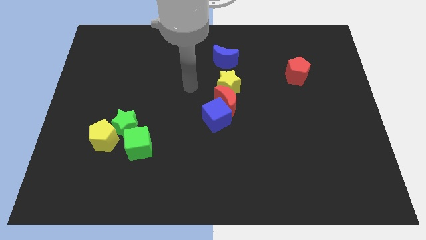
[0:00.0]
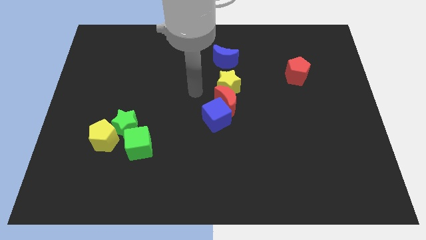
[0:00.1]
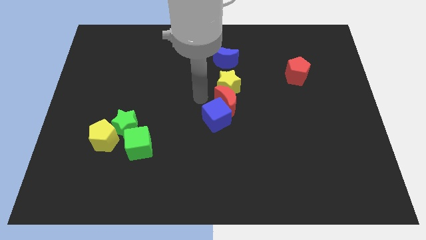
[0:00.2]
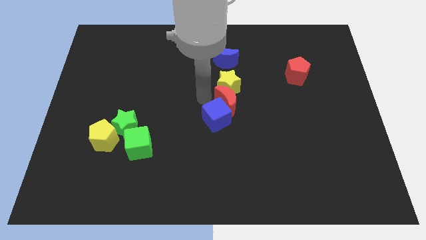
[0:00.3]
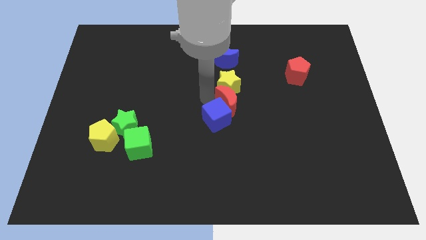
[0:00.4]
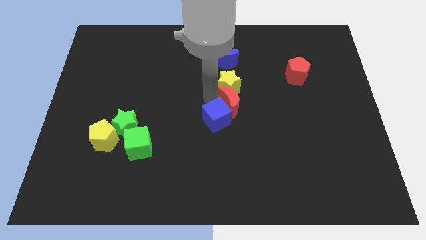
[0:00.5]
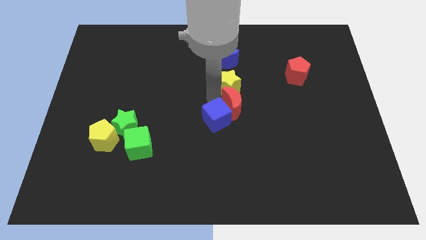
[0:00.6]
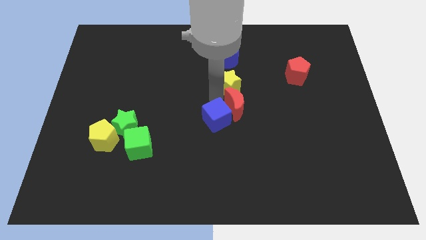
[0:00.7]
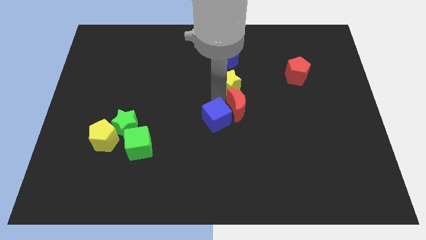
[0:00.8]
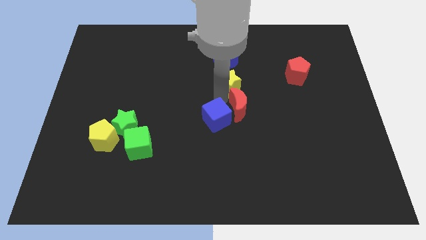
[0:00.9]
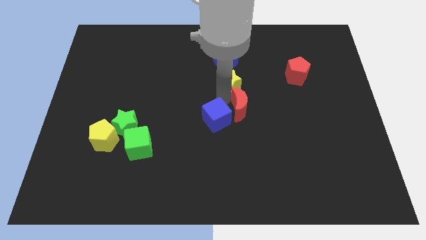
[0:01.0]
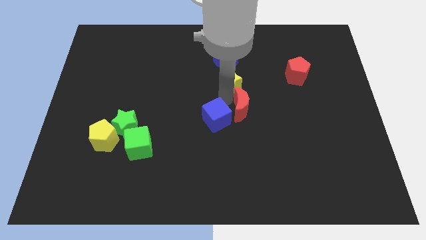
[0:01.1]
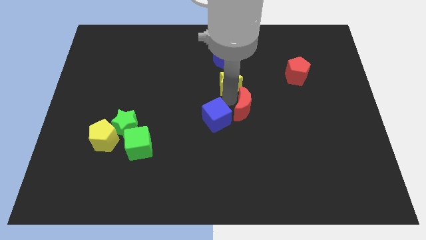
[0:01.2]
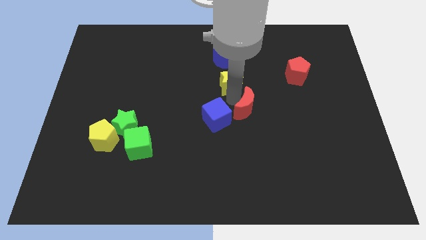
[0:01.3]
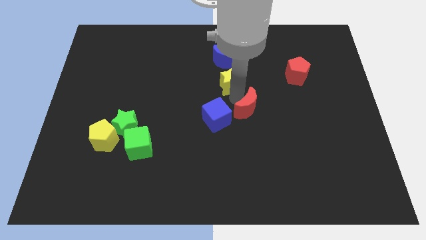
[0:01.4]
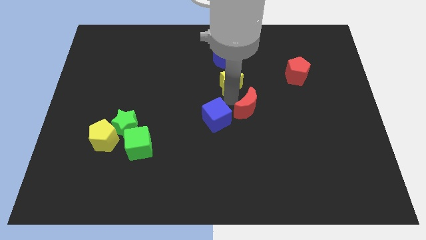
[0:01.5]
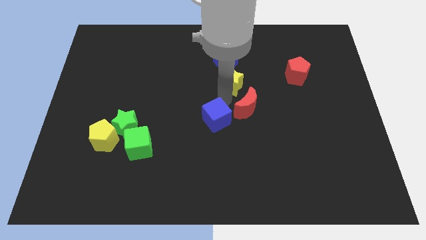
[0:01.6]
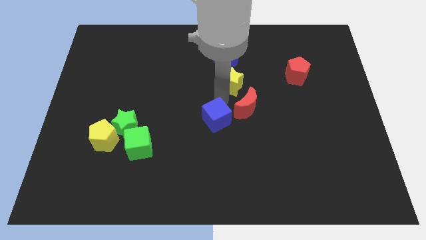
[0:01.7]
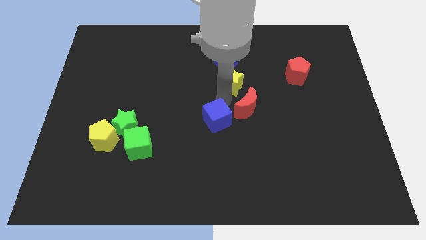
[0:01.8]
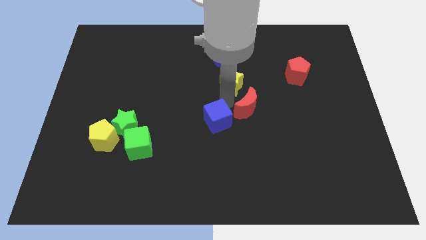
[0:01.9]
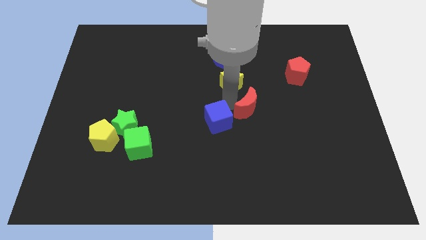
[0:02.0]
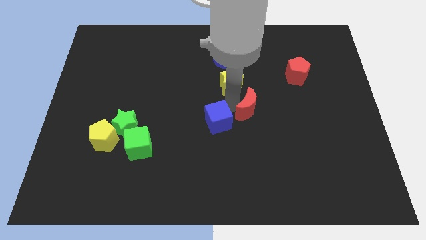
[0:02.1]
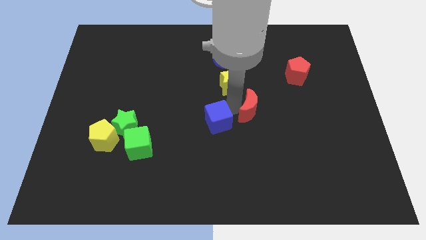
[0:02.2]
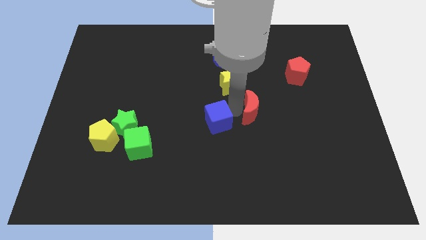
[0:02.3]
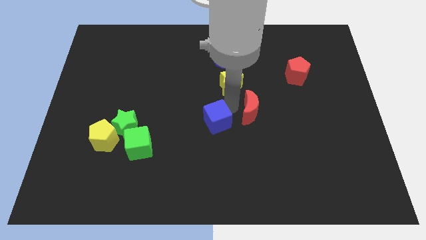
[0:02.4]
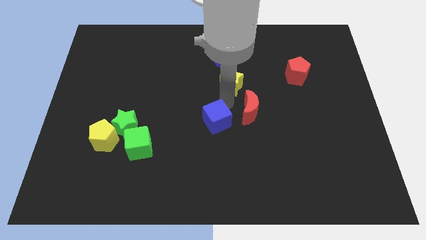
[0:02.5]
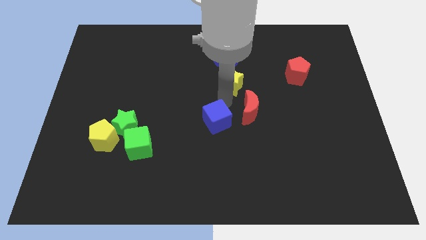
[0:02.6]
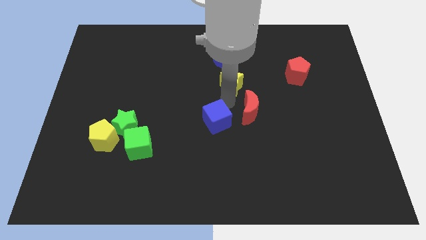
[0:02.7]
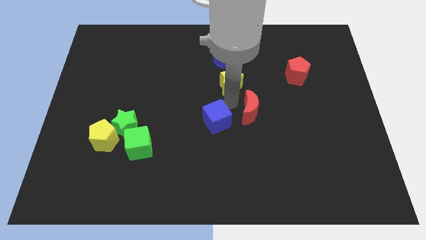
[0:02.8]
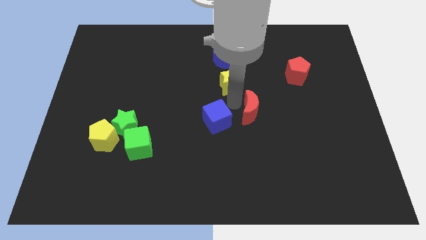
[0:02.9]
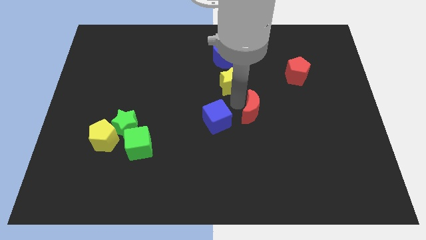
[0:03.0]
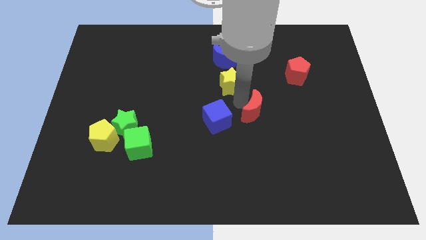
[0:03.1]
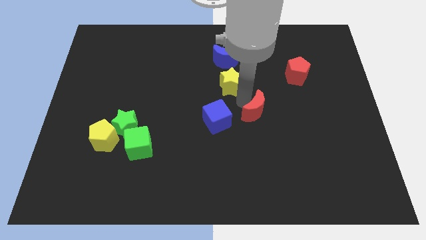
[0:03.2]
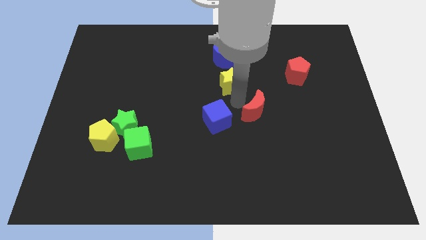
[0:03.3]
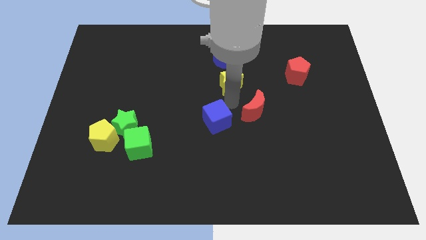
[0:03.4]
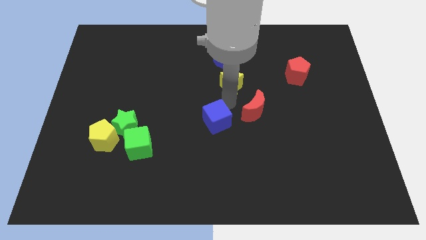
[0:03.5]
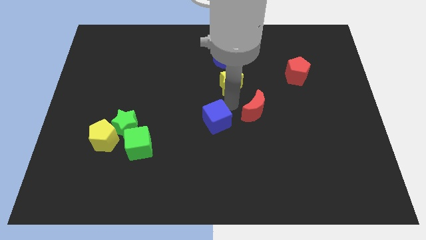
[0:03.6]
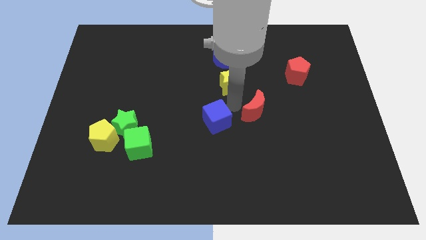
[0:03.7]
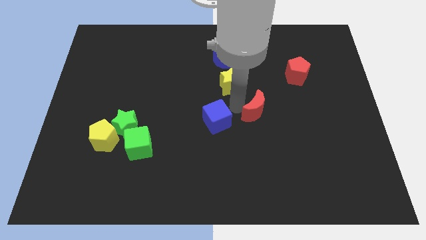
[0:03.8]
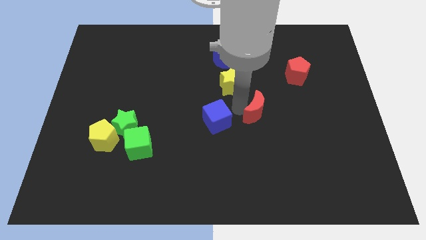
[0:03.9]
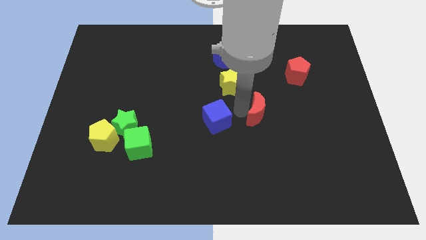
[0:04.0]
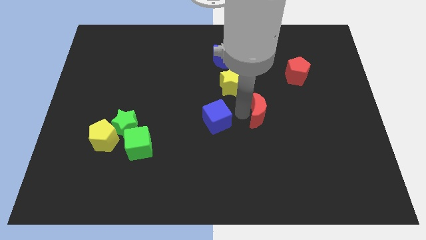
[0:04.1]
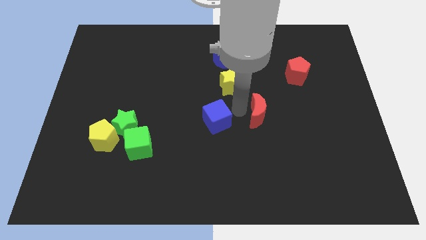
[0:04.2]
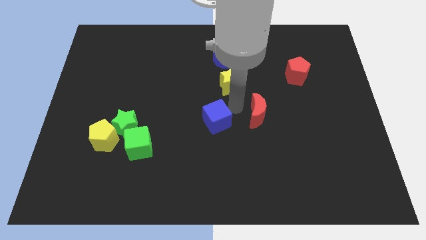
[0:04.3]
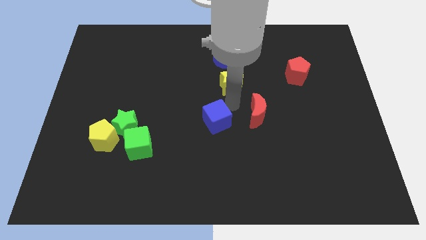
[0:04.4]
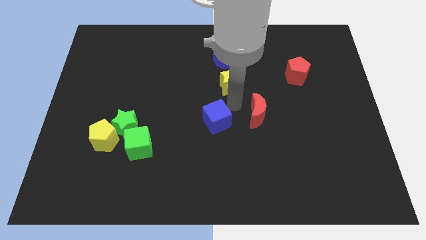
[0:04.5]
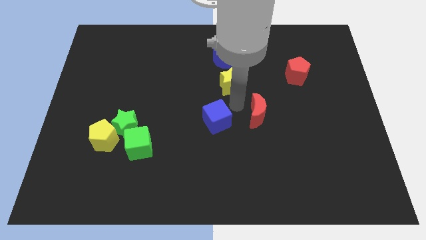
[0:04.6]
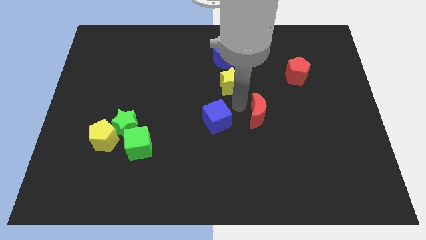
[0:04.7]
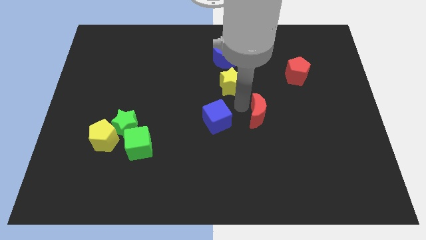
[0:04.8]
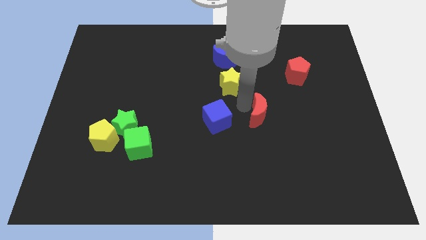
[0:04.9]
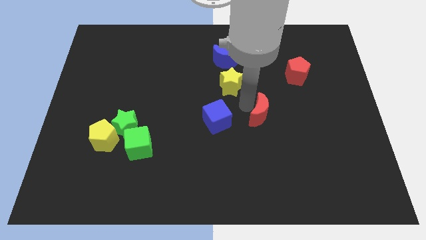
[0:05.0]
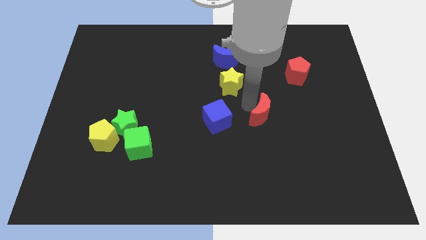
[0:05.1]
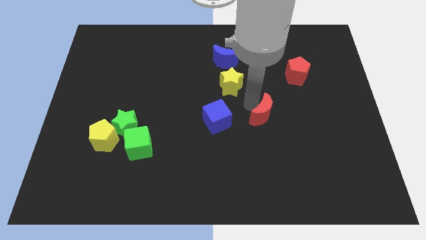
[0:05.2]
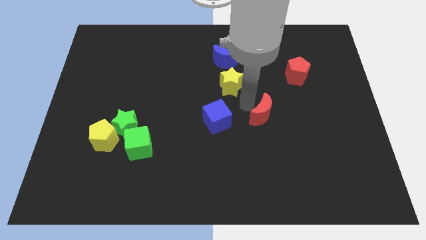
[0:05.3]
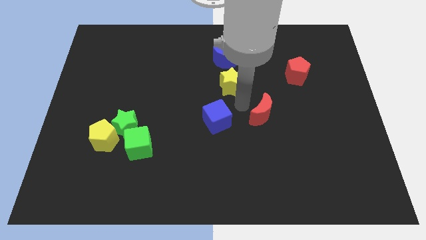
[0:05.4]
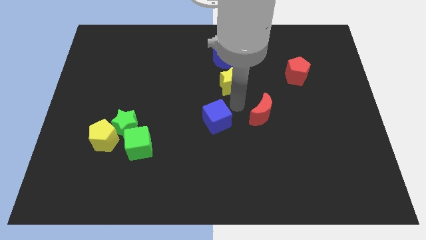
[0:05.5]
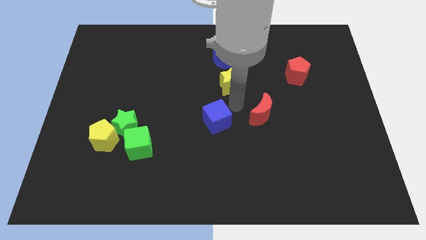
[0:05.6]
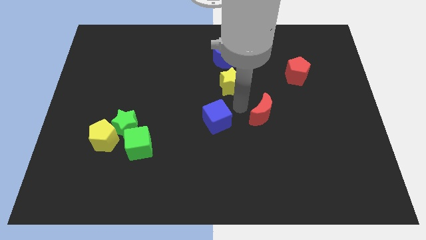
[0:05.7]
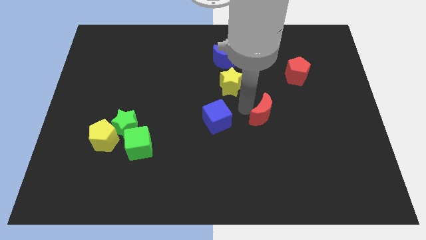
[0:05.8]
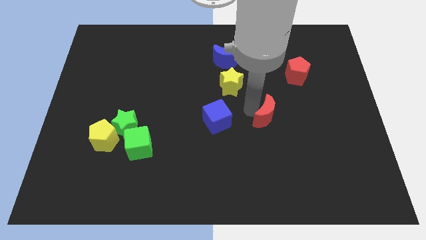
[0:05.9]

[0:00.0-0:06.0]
pull the red moon apart from the yellow star and blue cube

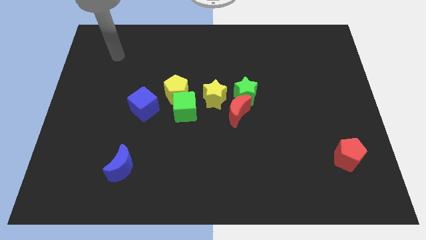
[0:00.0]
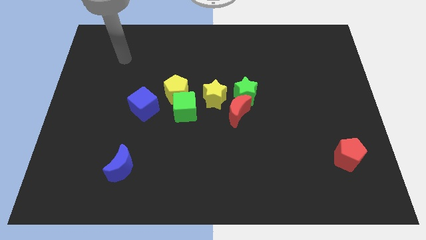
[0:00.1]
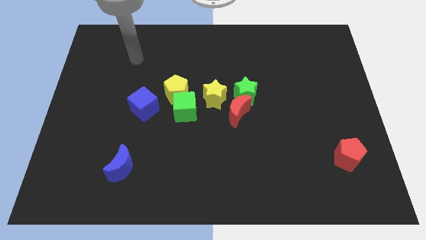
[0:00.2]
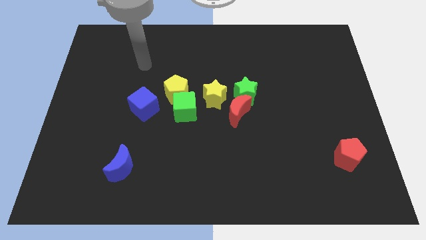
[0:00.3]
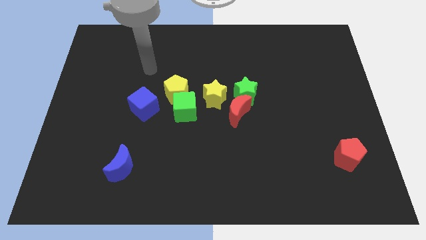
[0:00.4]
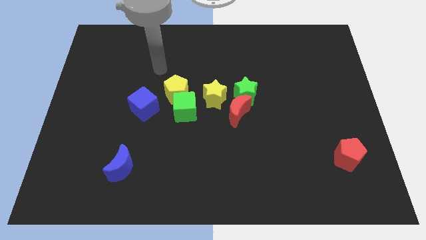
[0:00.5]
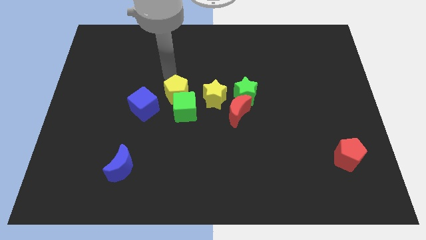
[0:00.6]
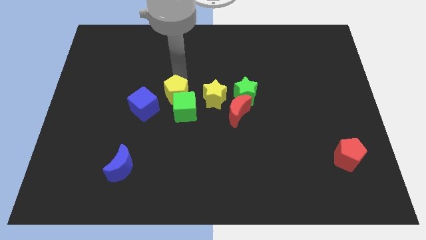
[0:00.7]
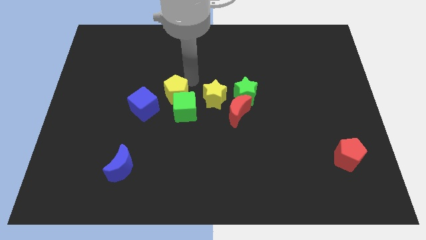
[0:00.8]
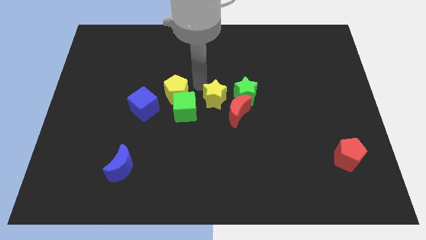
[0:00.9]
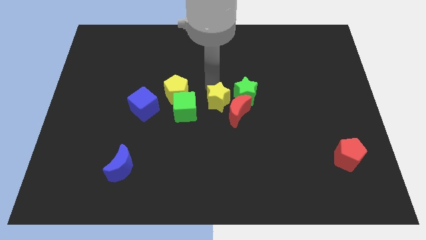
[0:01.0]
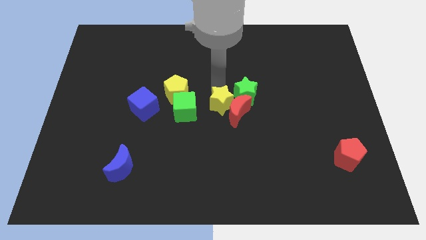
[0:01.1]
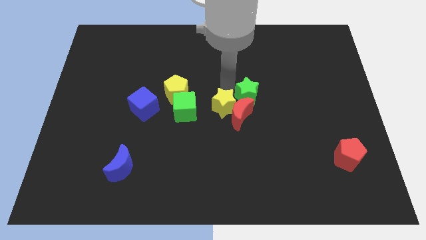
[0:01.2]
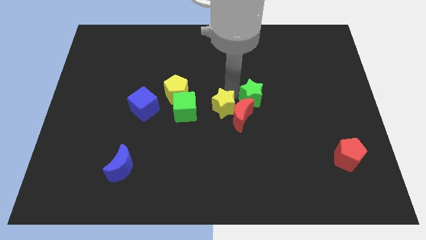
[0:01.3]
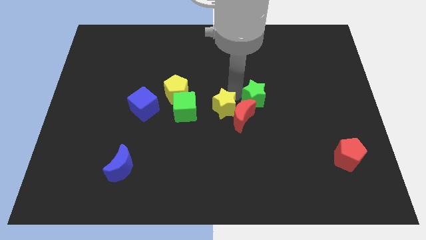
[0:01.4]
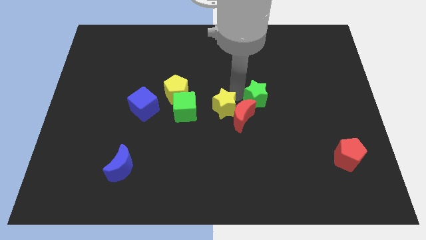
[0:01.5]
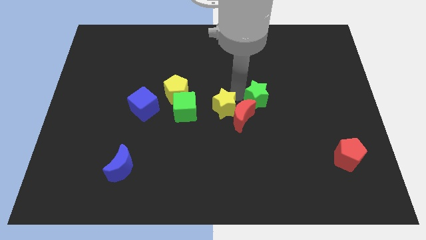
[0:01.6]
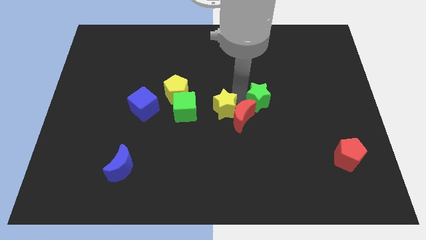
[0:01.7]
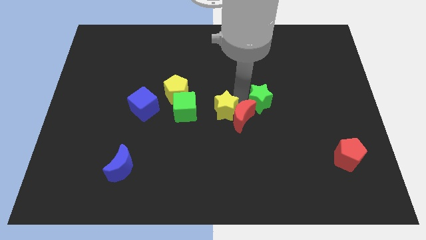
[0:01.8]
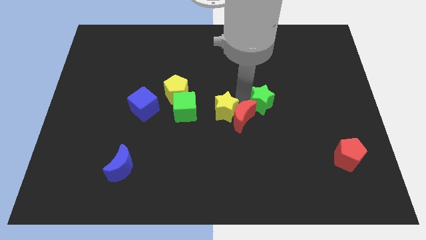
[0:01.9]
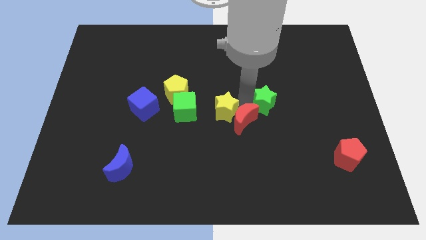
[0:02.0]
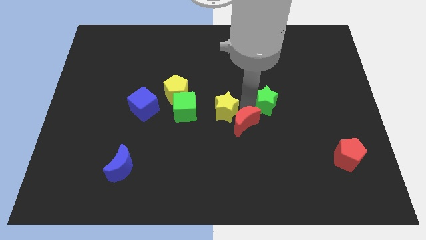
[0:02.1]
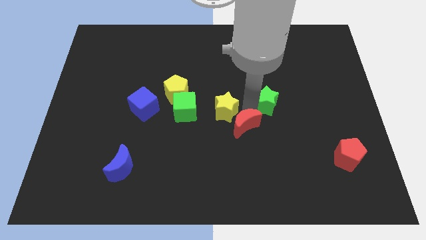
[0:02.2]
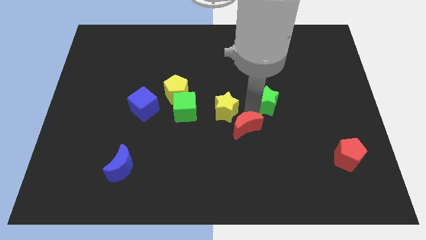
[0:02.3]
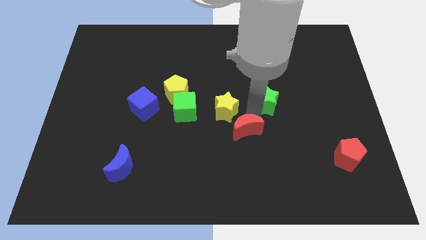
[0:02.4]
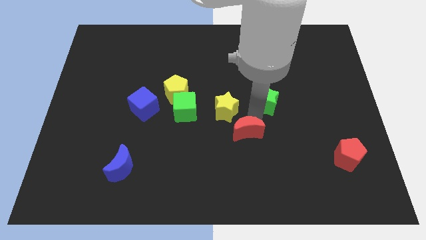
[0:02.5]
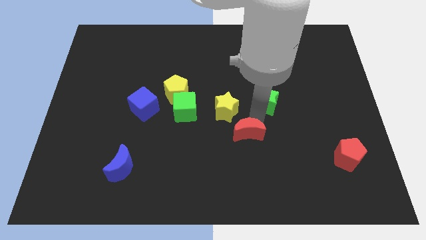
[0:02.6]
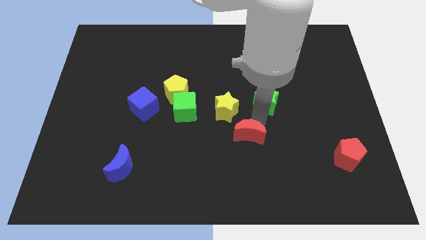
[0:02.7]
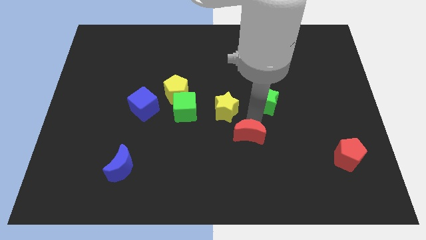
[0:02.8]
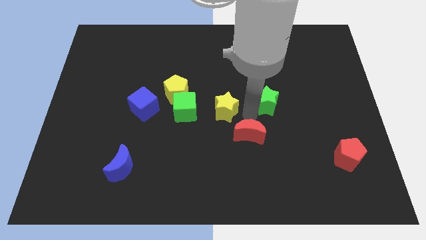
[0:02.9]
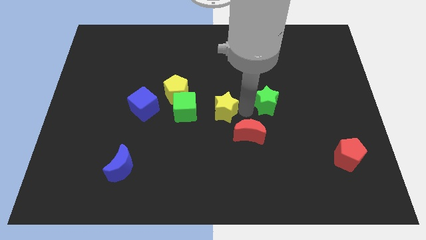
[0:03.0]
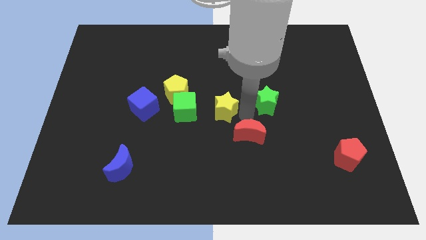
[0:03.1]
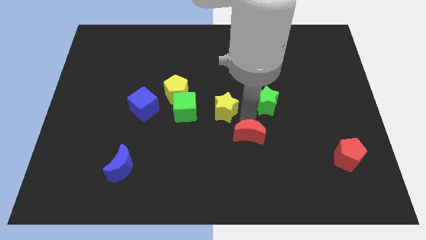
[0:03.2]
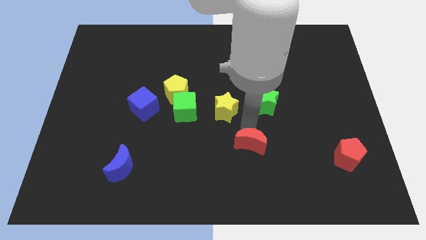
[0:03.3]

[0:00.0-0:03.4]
pull the red moon apart from the green star and yellow star
